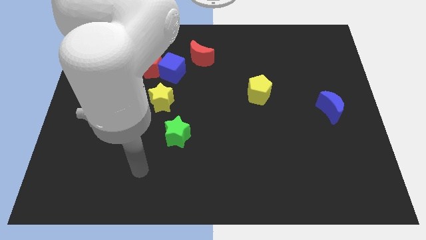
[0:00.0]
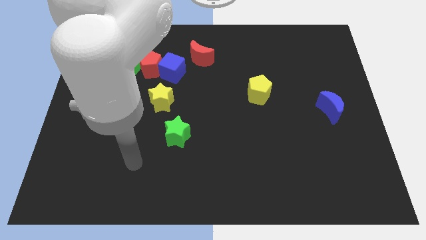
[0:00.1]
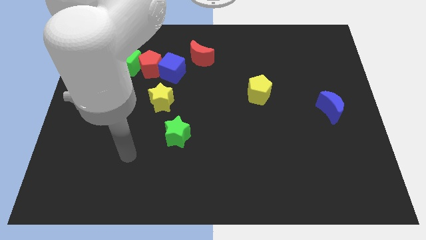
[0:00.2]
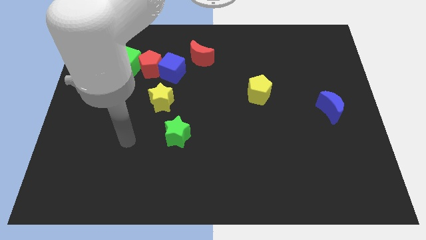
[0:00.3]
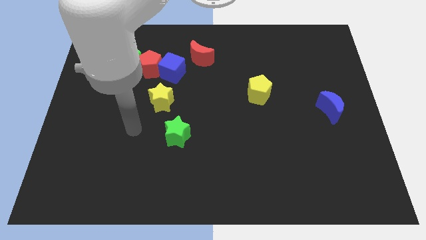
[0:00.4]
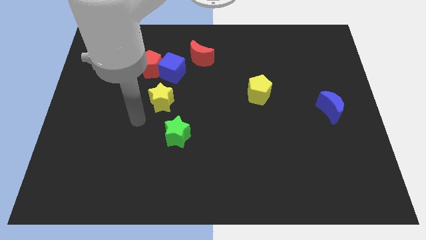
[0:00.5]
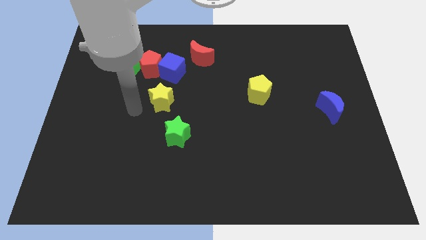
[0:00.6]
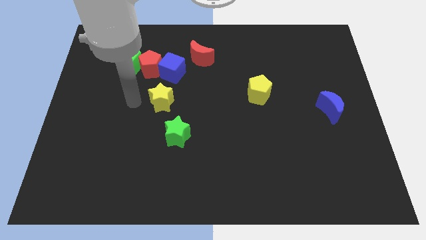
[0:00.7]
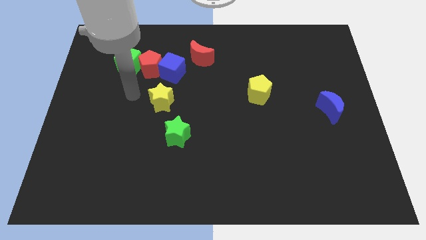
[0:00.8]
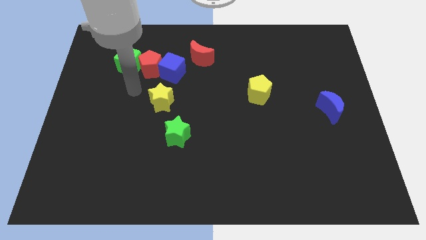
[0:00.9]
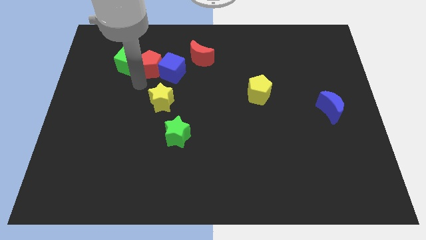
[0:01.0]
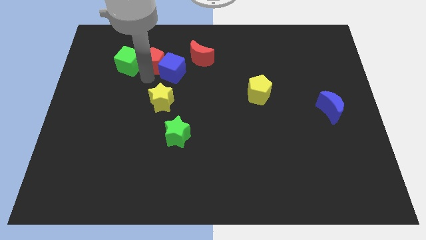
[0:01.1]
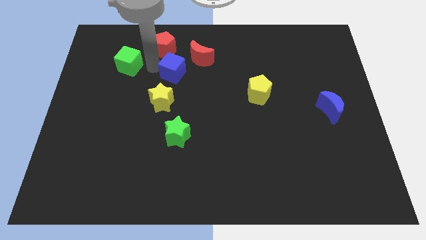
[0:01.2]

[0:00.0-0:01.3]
separate the green cube from the red pentagon

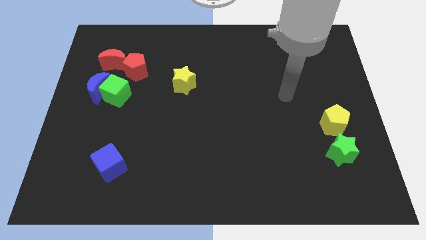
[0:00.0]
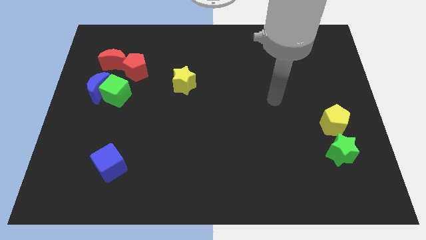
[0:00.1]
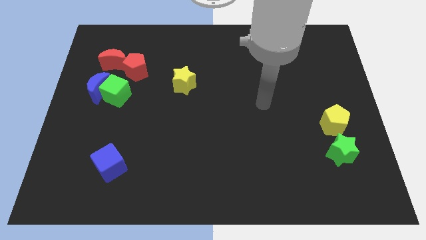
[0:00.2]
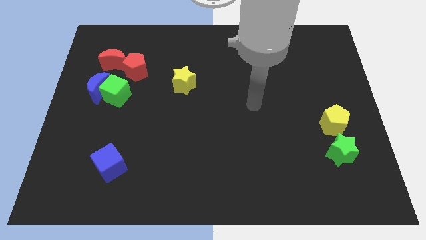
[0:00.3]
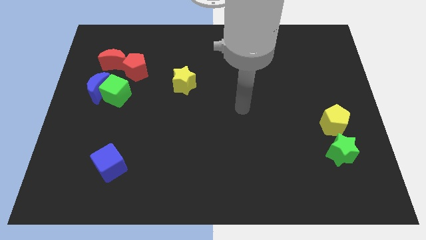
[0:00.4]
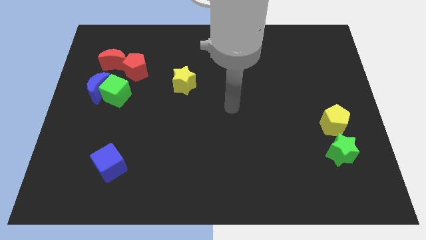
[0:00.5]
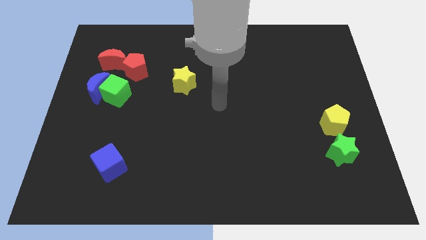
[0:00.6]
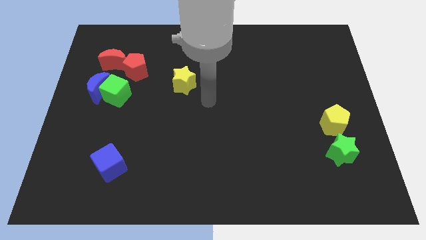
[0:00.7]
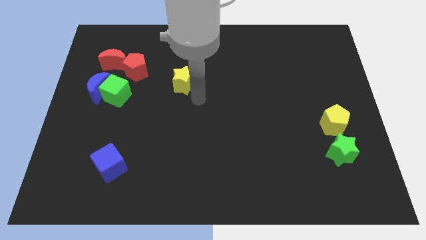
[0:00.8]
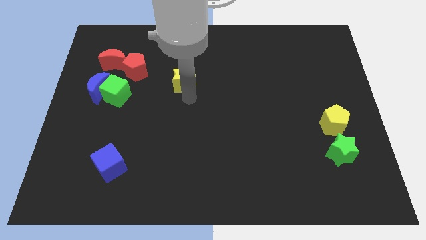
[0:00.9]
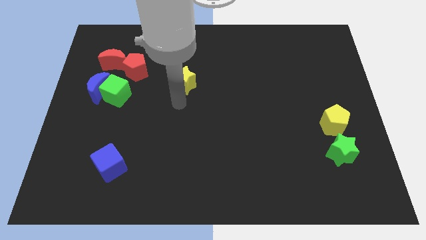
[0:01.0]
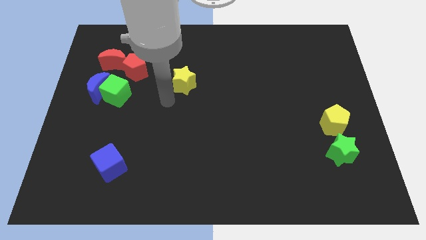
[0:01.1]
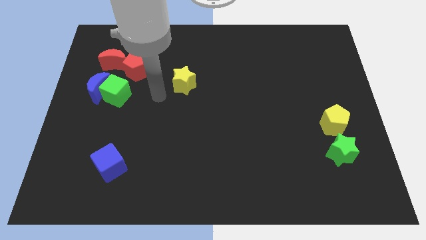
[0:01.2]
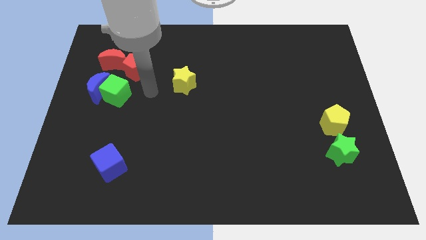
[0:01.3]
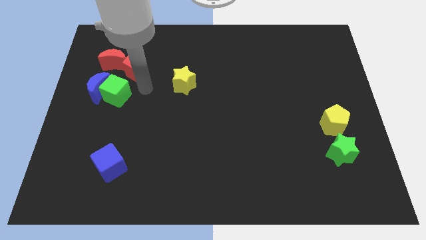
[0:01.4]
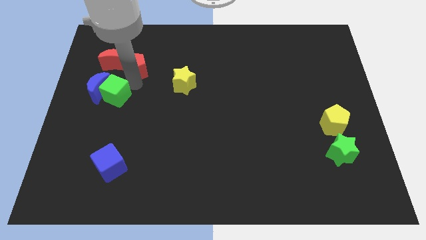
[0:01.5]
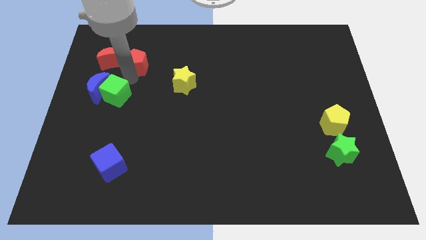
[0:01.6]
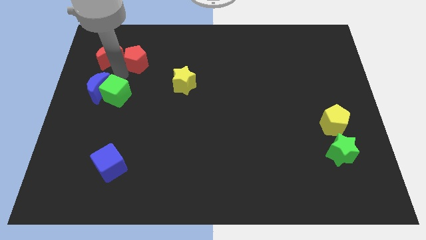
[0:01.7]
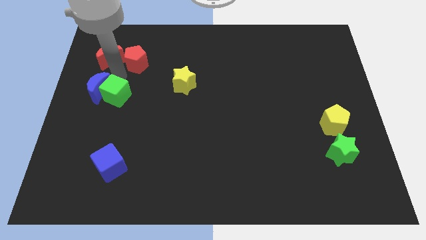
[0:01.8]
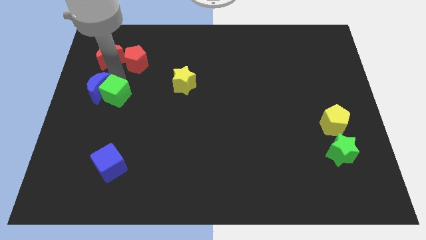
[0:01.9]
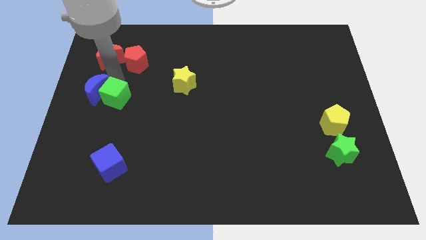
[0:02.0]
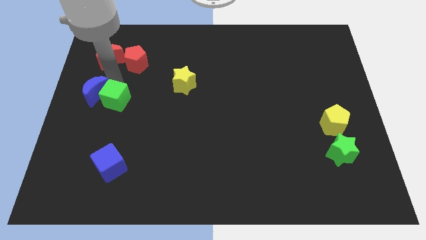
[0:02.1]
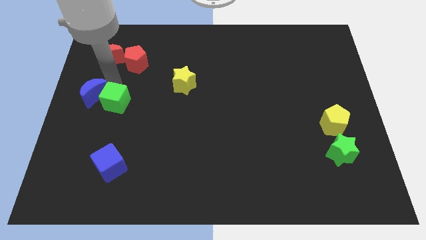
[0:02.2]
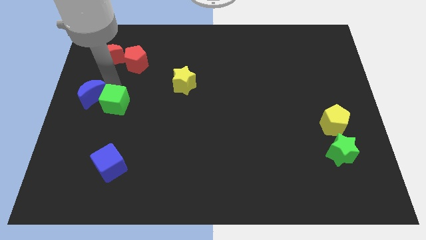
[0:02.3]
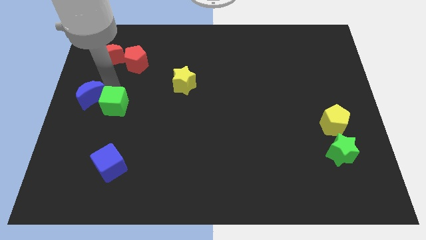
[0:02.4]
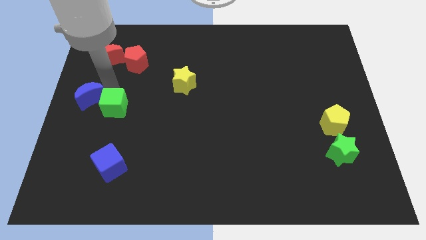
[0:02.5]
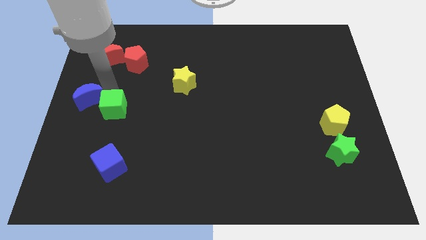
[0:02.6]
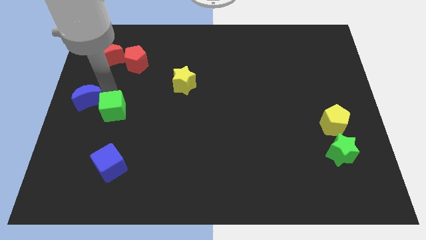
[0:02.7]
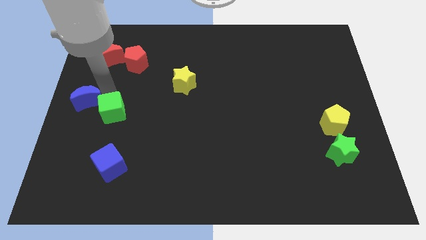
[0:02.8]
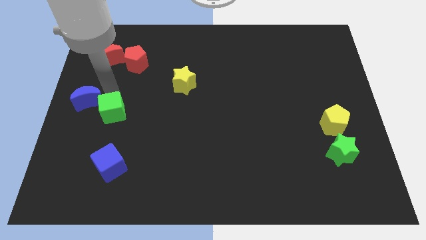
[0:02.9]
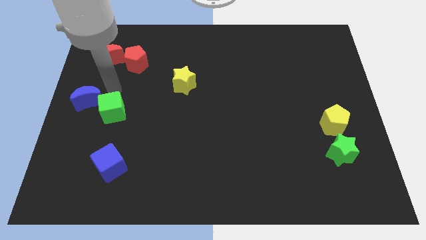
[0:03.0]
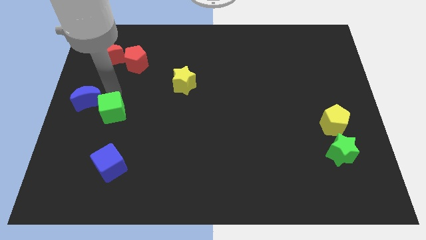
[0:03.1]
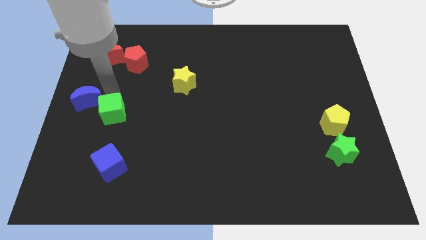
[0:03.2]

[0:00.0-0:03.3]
move the green cube away from the blue moon and red pentagon

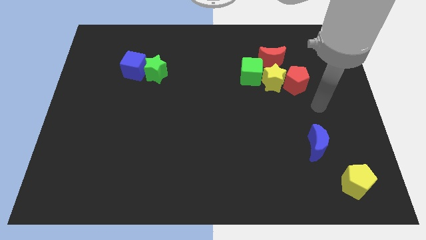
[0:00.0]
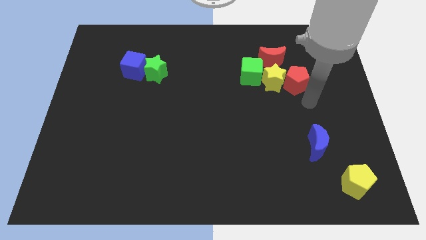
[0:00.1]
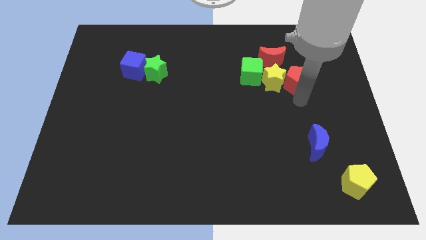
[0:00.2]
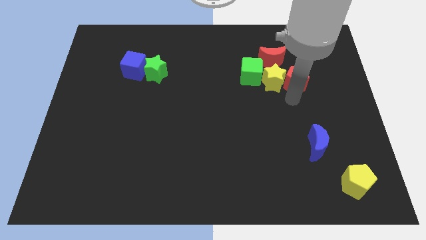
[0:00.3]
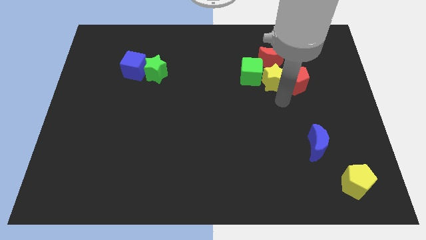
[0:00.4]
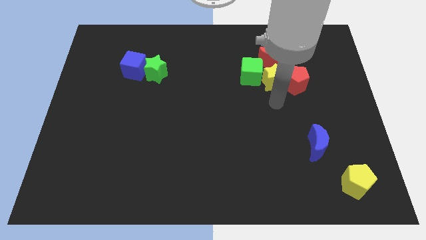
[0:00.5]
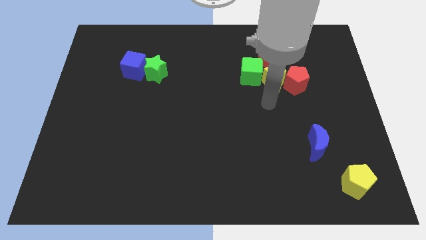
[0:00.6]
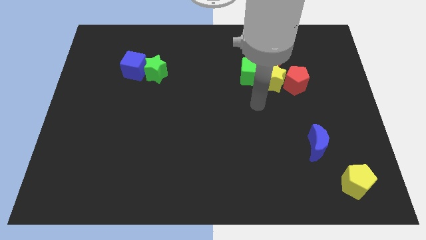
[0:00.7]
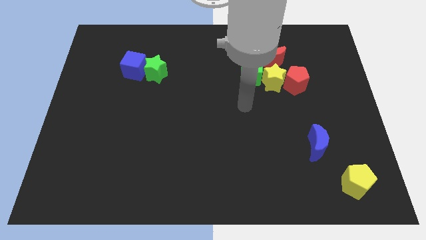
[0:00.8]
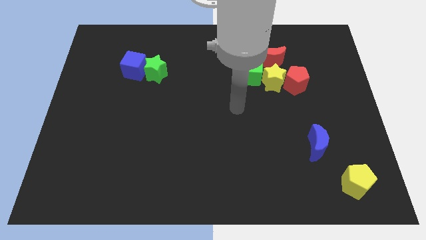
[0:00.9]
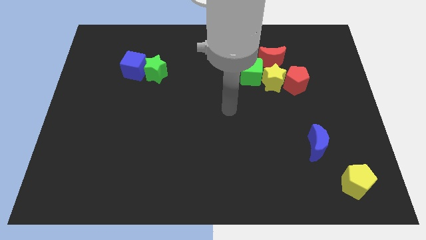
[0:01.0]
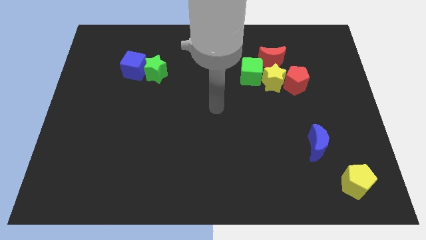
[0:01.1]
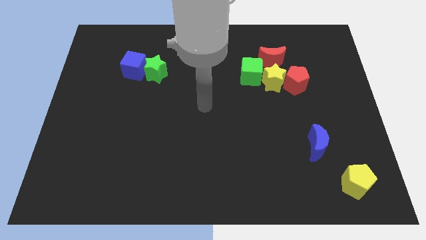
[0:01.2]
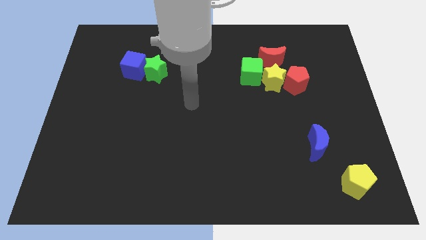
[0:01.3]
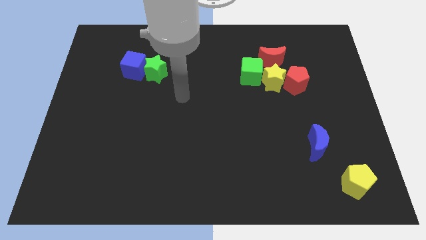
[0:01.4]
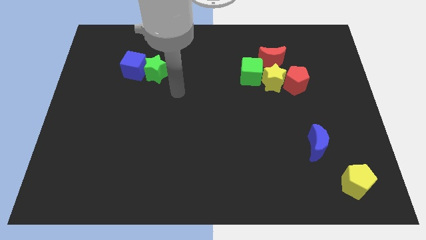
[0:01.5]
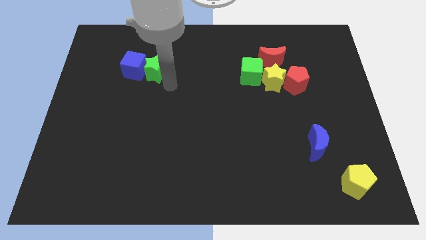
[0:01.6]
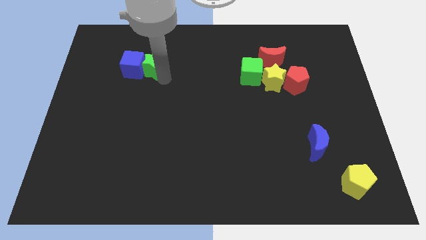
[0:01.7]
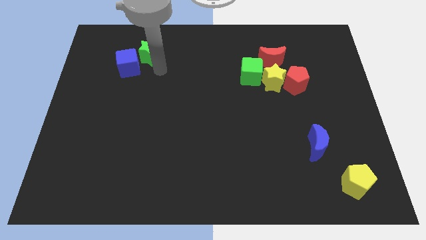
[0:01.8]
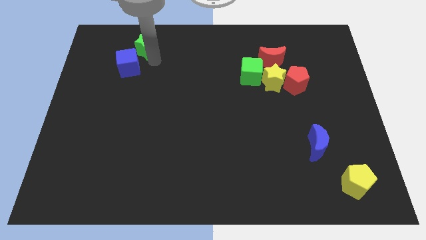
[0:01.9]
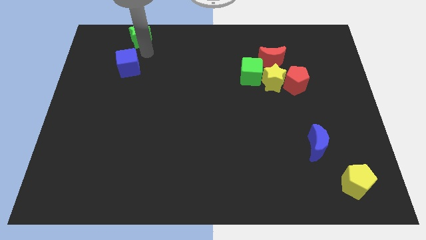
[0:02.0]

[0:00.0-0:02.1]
move the blue cube away from the green star

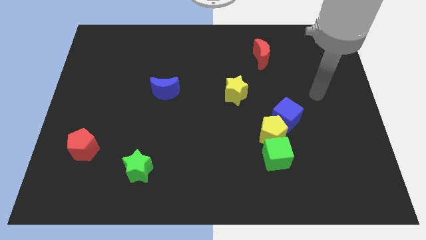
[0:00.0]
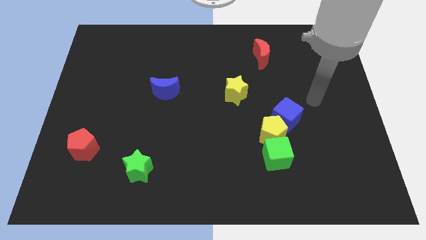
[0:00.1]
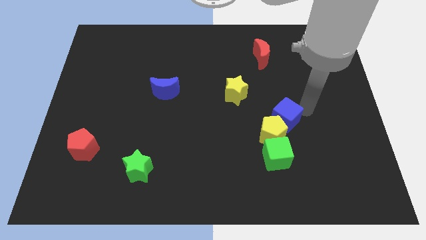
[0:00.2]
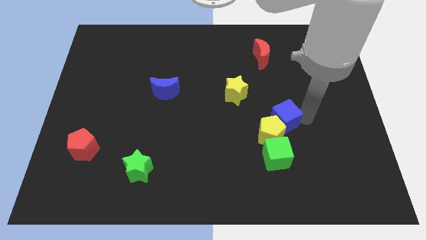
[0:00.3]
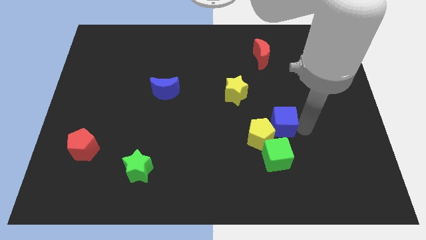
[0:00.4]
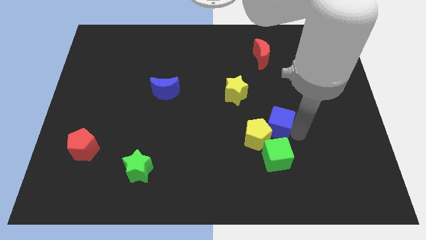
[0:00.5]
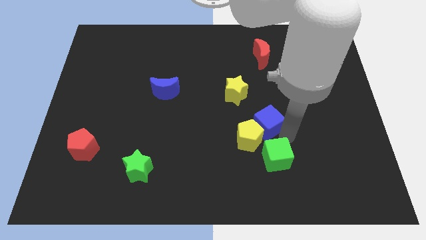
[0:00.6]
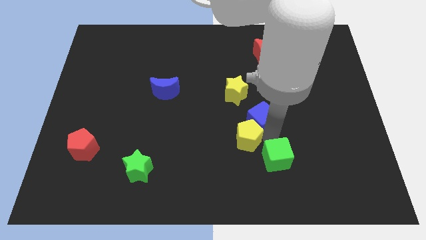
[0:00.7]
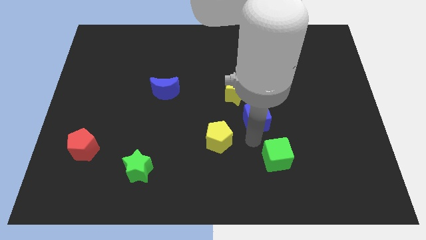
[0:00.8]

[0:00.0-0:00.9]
separate the blue cube from the yellow pentagon

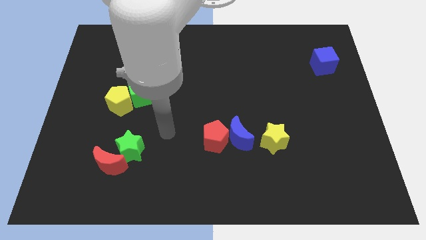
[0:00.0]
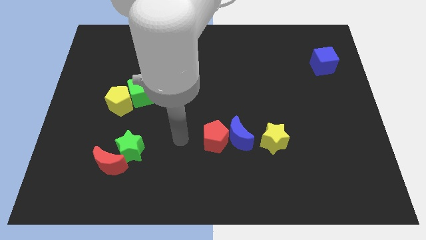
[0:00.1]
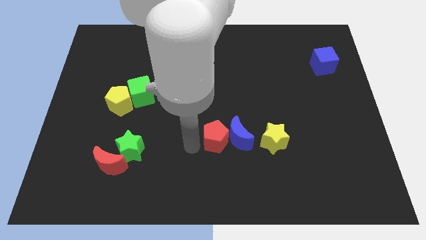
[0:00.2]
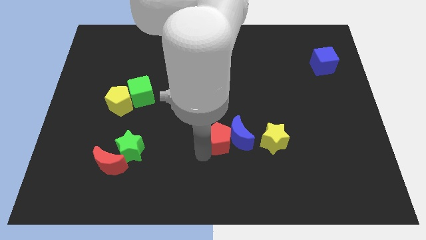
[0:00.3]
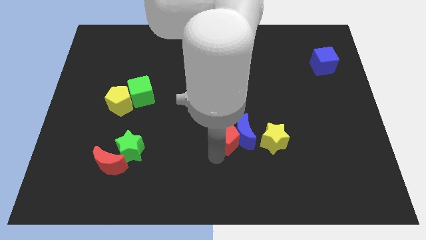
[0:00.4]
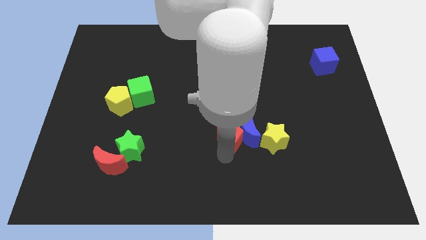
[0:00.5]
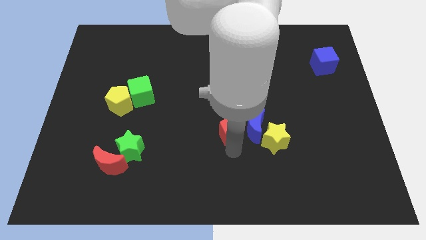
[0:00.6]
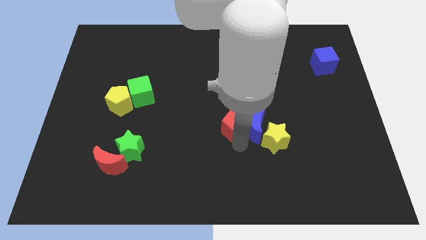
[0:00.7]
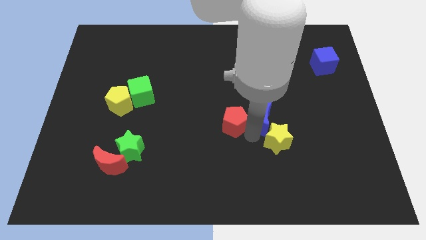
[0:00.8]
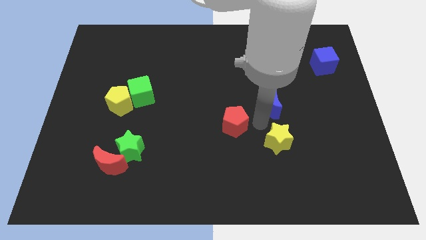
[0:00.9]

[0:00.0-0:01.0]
separate the red pentagon from the blue moon

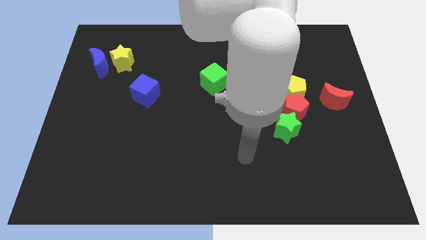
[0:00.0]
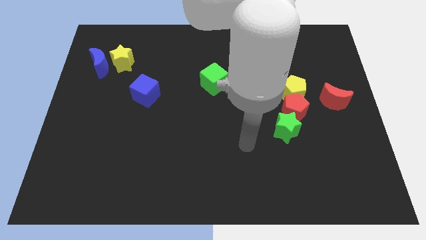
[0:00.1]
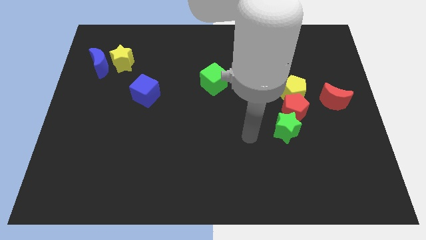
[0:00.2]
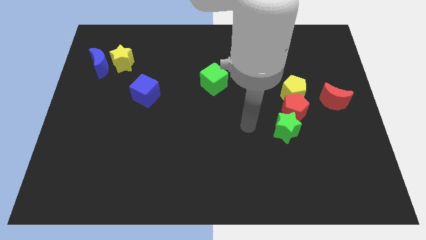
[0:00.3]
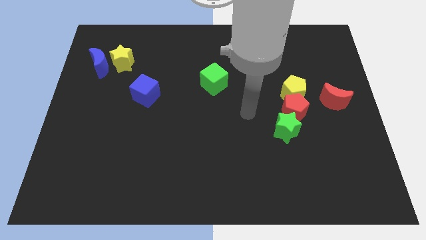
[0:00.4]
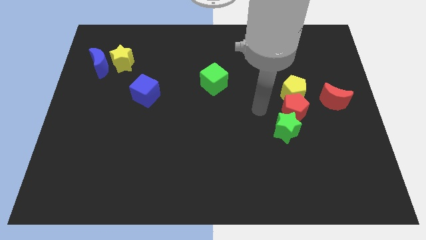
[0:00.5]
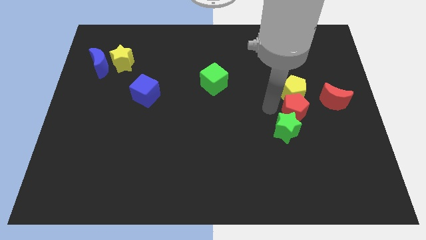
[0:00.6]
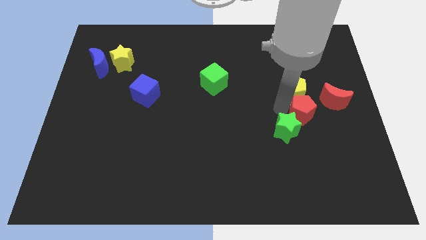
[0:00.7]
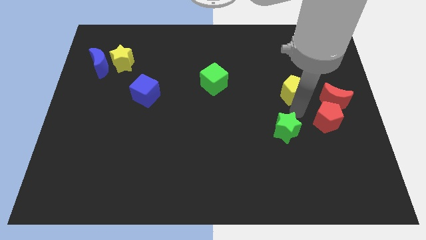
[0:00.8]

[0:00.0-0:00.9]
pull the green star apart from the red pentagon
